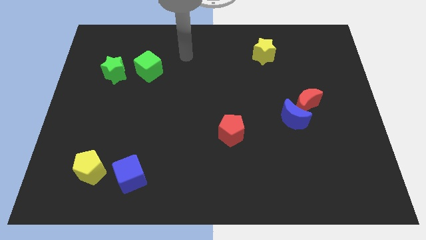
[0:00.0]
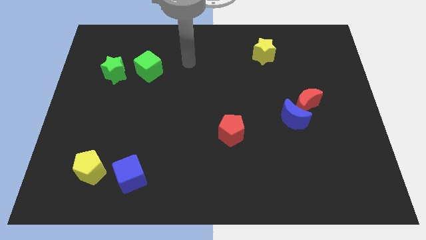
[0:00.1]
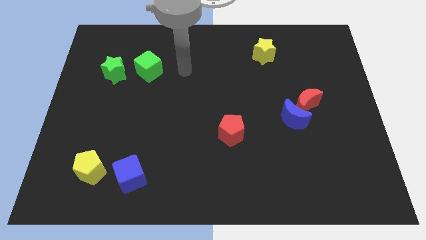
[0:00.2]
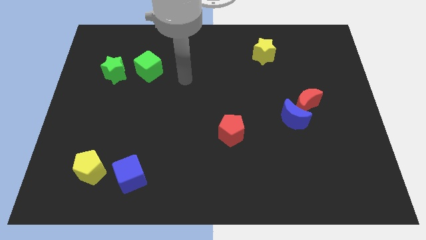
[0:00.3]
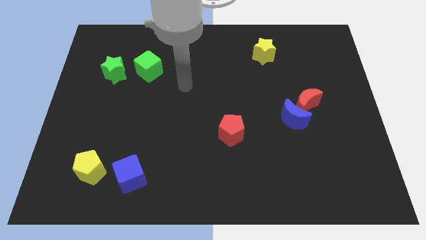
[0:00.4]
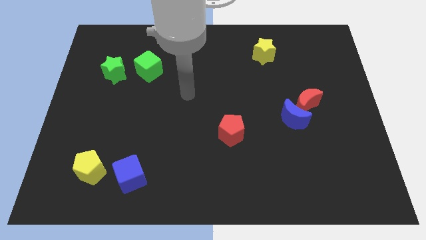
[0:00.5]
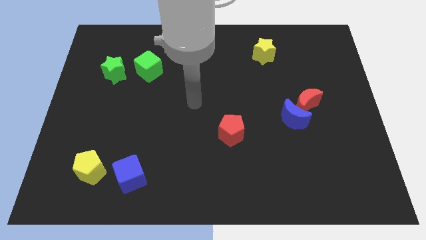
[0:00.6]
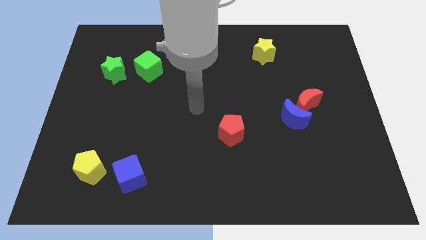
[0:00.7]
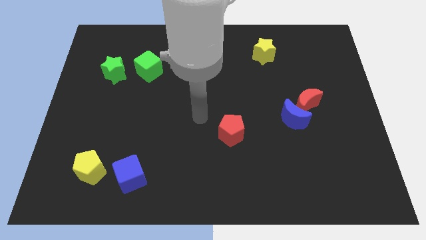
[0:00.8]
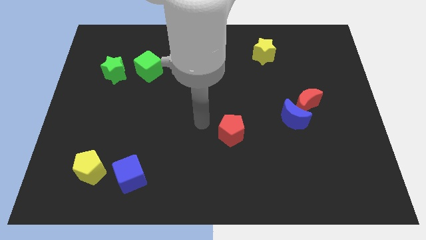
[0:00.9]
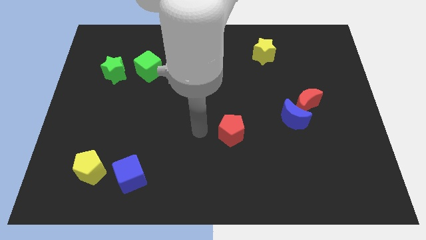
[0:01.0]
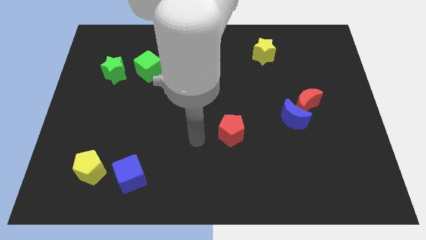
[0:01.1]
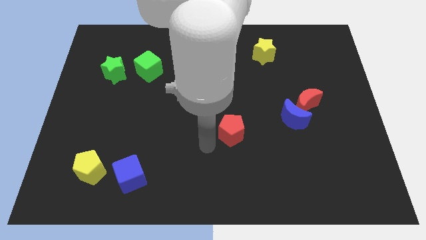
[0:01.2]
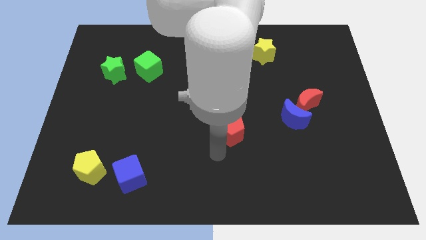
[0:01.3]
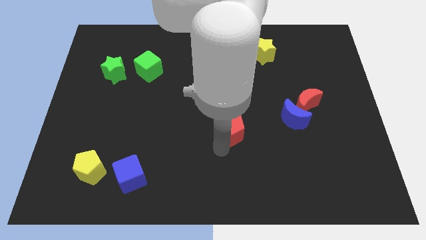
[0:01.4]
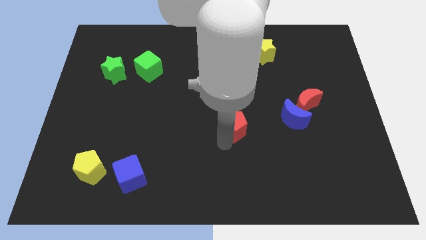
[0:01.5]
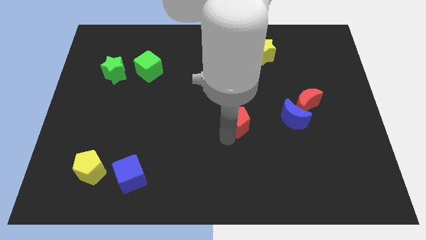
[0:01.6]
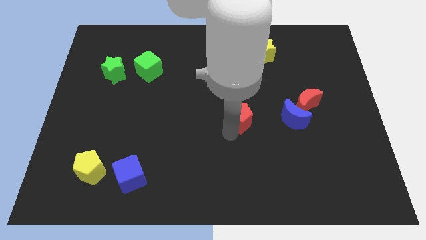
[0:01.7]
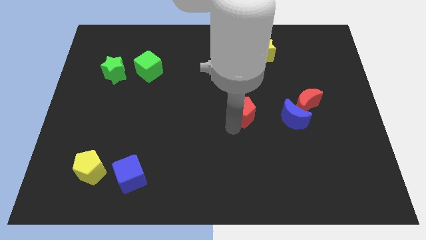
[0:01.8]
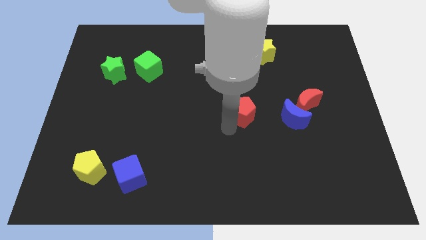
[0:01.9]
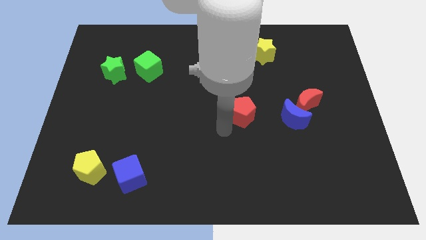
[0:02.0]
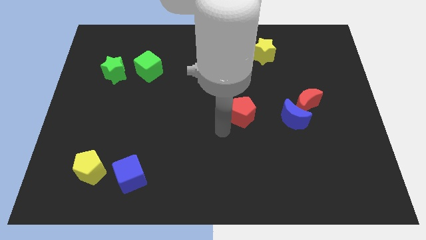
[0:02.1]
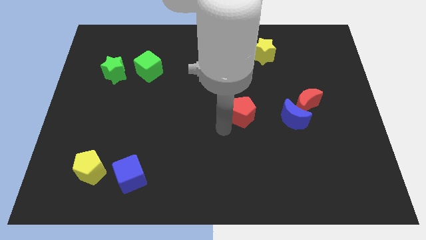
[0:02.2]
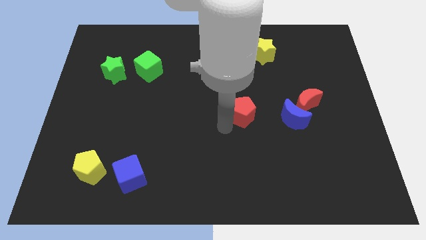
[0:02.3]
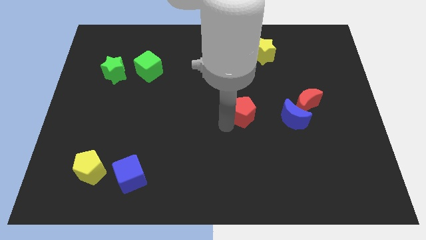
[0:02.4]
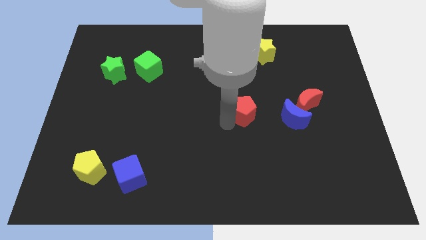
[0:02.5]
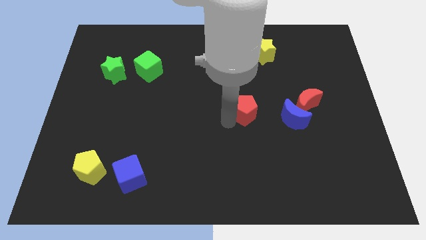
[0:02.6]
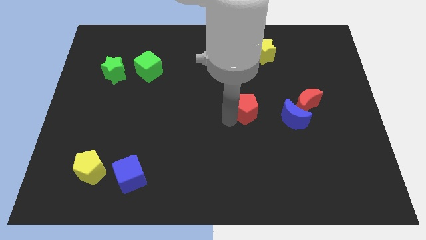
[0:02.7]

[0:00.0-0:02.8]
slide the red pentagon slightly diagonally upwards and to the right

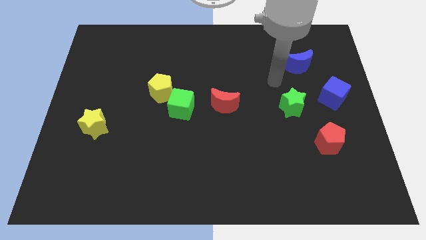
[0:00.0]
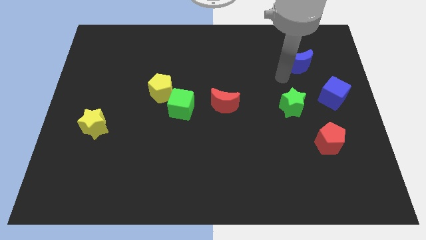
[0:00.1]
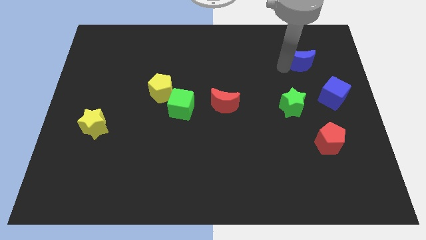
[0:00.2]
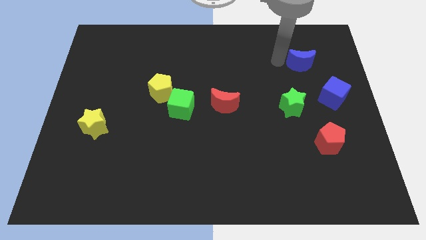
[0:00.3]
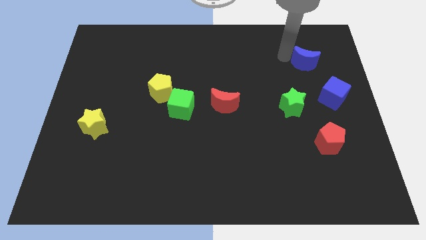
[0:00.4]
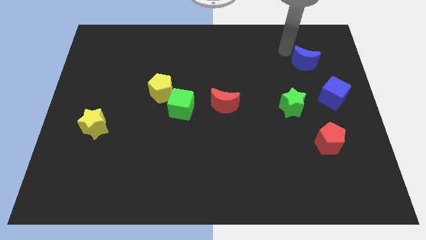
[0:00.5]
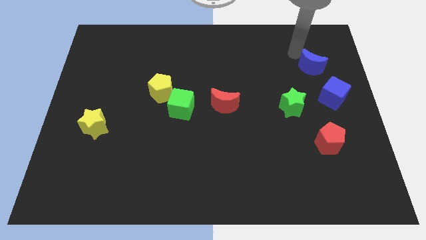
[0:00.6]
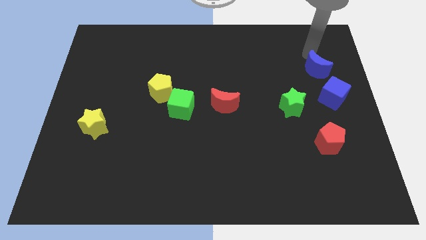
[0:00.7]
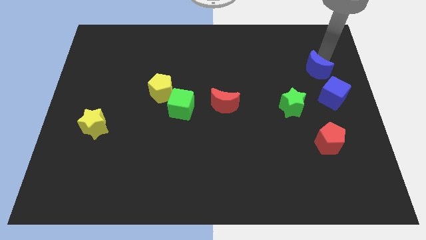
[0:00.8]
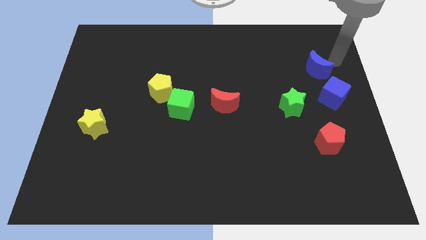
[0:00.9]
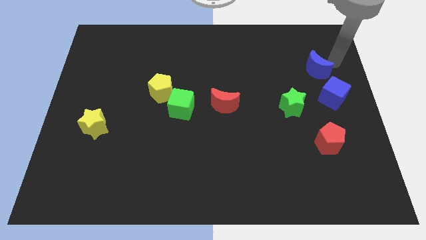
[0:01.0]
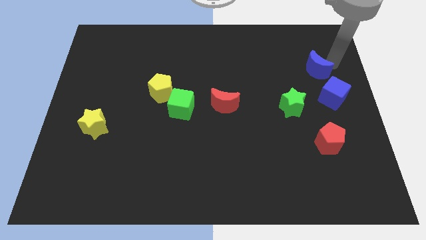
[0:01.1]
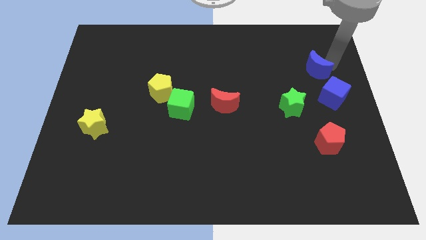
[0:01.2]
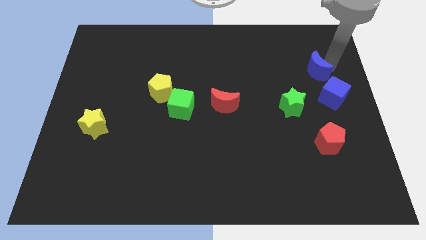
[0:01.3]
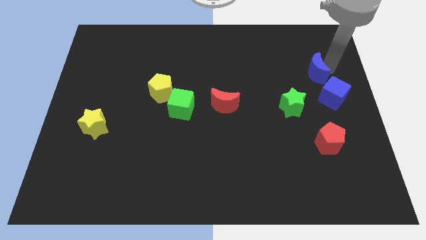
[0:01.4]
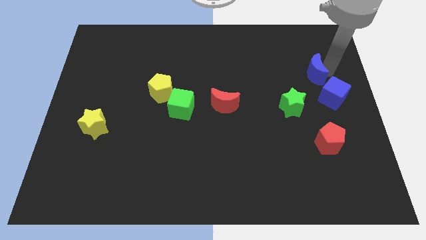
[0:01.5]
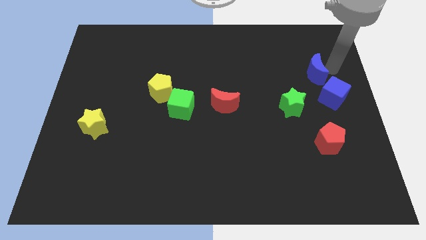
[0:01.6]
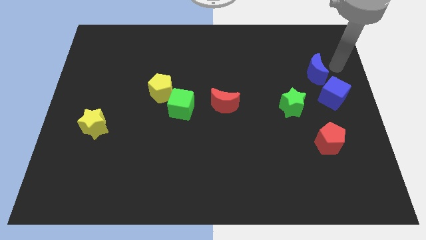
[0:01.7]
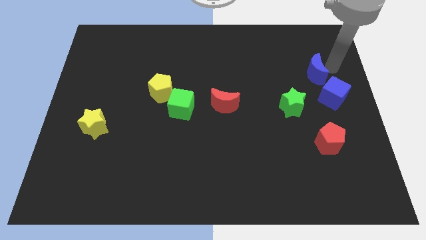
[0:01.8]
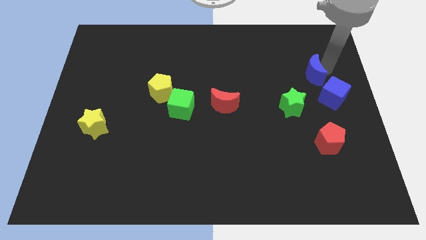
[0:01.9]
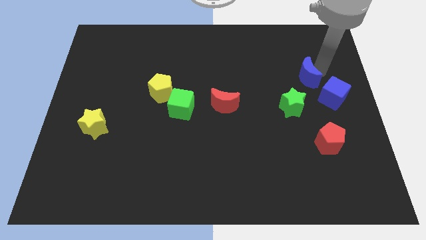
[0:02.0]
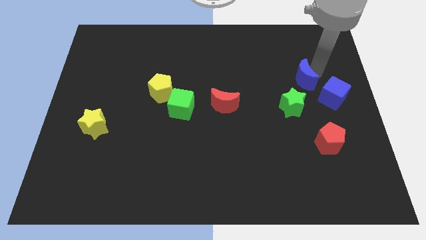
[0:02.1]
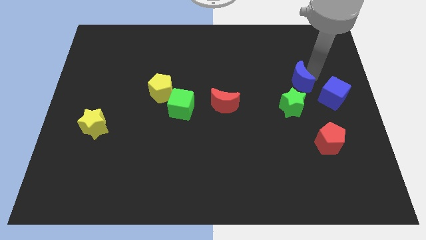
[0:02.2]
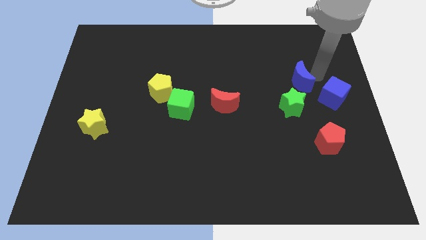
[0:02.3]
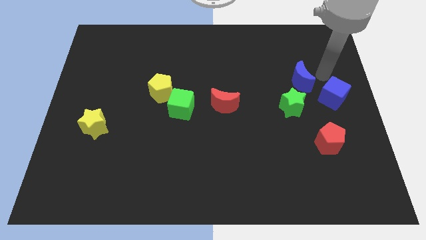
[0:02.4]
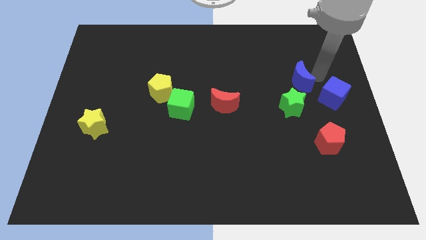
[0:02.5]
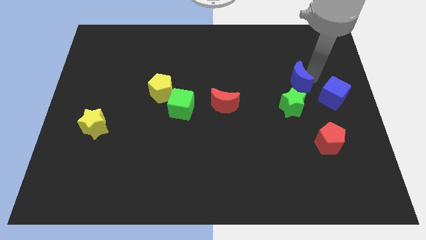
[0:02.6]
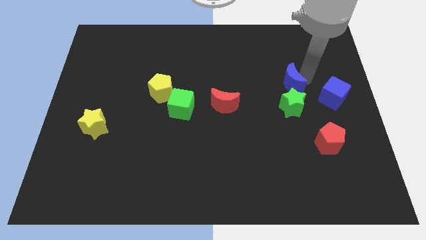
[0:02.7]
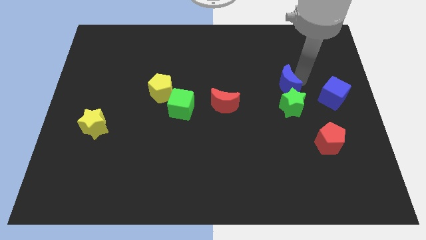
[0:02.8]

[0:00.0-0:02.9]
push the blue moon downwards and left a little bit

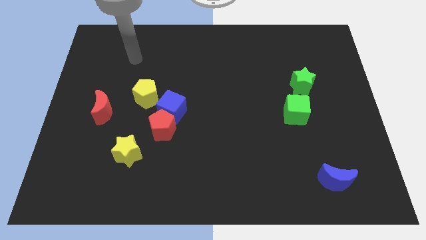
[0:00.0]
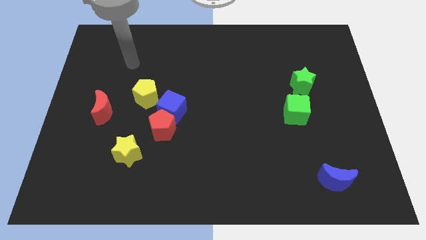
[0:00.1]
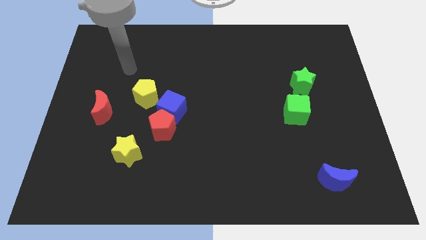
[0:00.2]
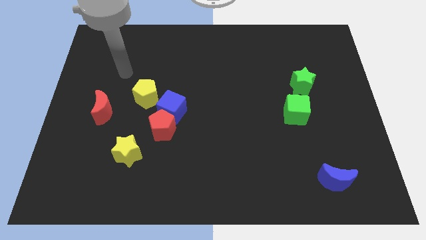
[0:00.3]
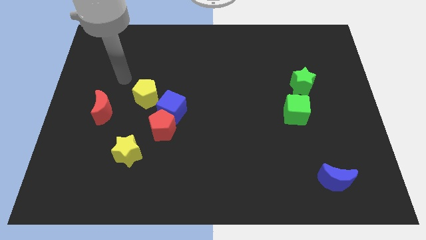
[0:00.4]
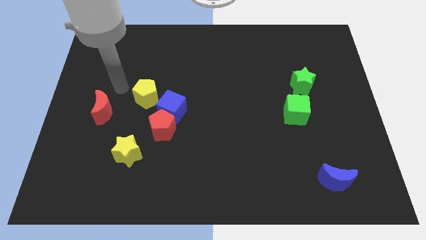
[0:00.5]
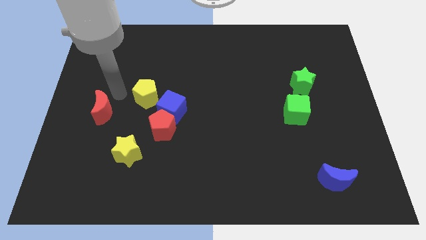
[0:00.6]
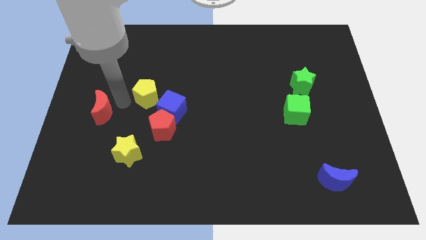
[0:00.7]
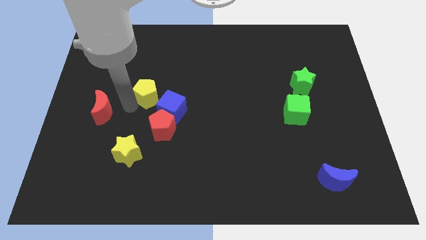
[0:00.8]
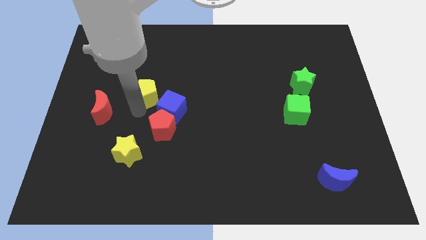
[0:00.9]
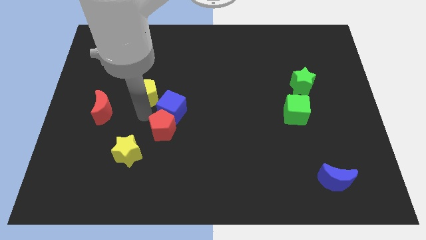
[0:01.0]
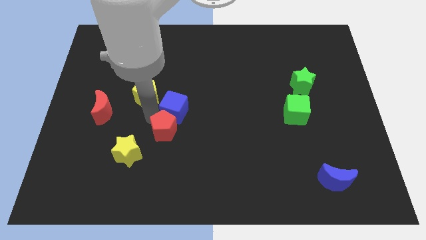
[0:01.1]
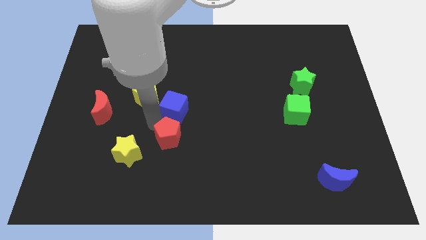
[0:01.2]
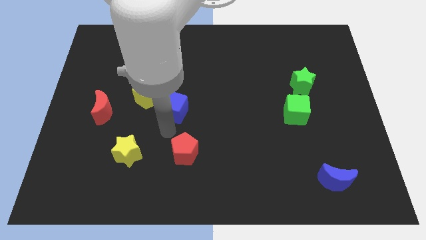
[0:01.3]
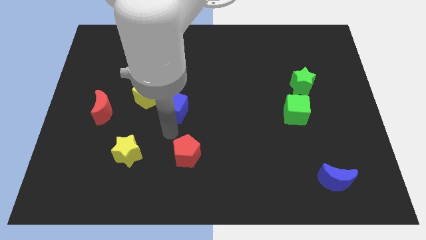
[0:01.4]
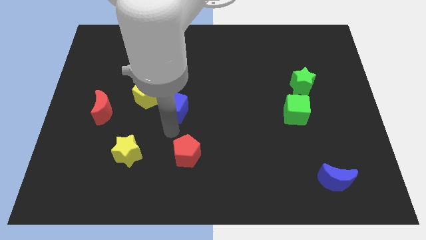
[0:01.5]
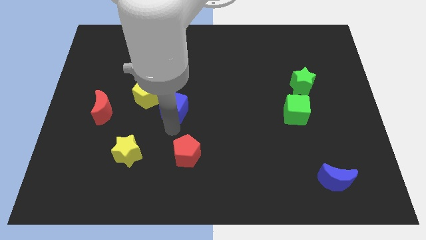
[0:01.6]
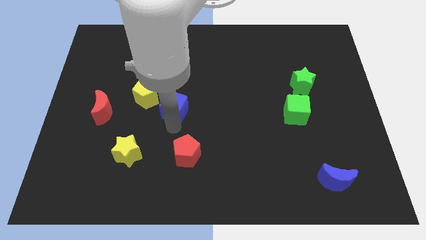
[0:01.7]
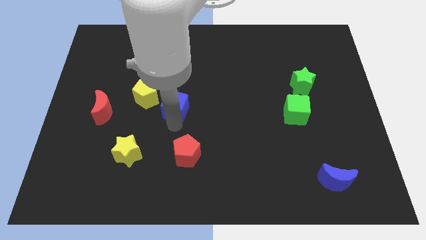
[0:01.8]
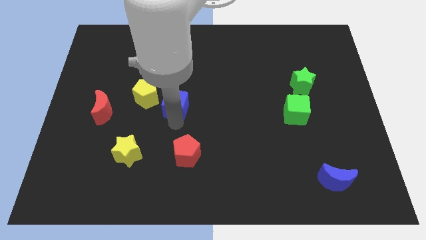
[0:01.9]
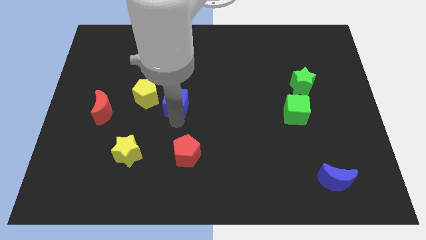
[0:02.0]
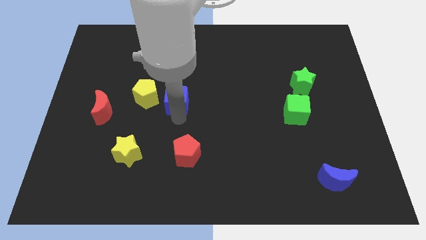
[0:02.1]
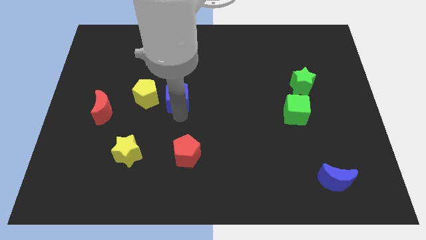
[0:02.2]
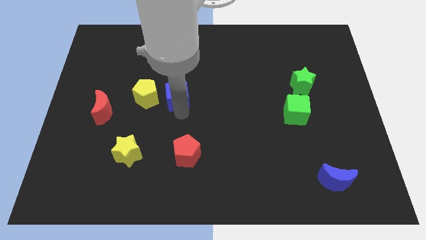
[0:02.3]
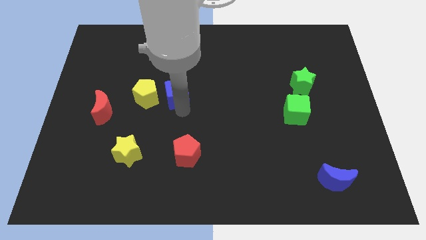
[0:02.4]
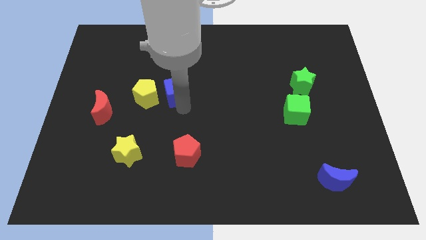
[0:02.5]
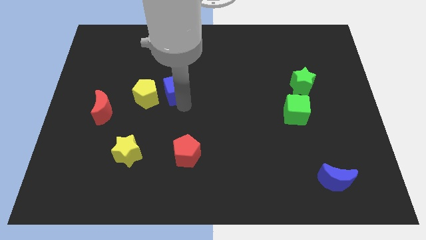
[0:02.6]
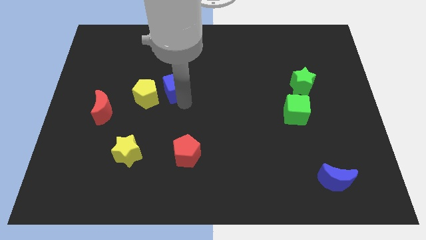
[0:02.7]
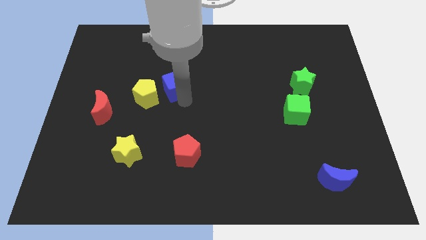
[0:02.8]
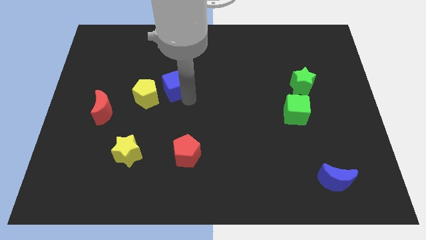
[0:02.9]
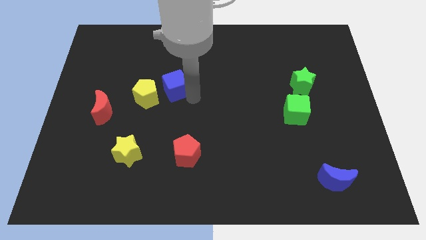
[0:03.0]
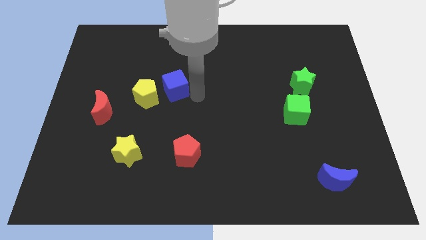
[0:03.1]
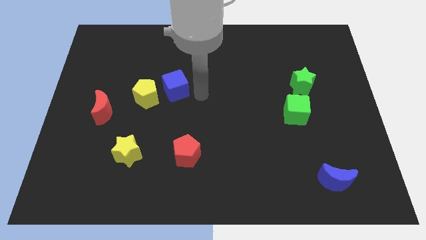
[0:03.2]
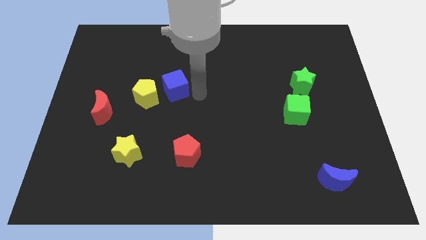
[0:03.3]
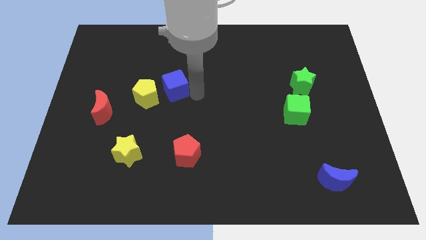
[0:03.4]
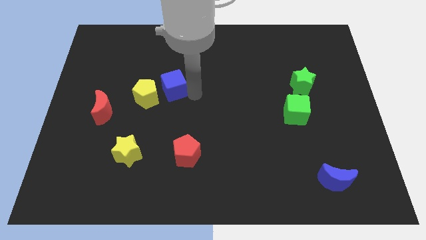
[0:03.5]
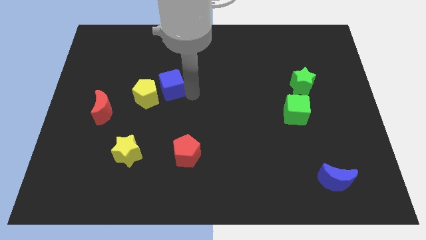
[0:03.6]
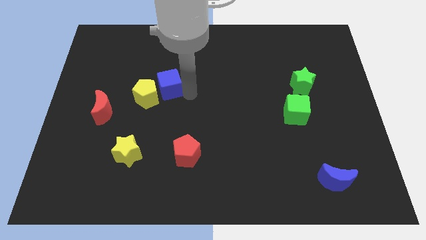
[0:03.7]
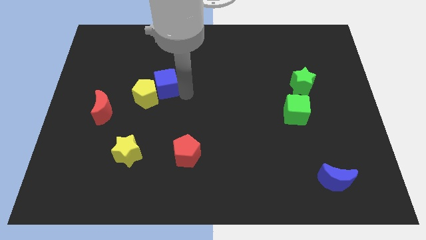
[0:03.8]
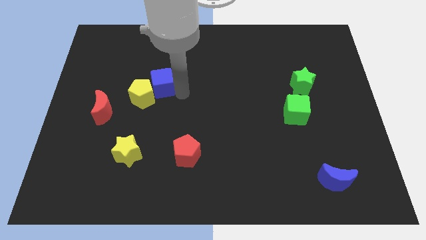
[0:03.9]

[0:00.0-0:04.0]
push the blue cube a little upwards and to the left
